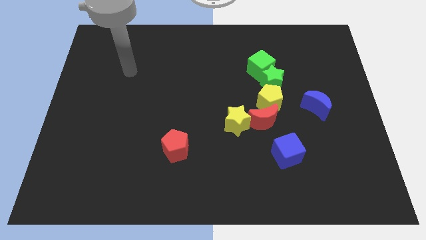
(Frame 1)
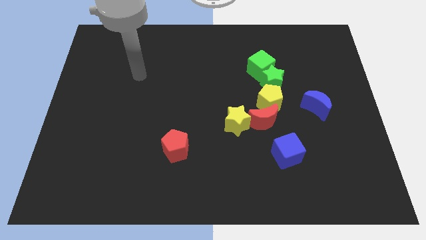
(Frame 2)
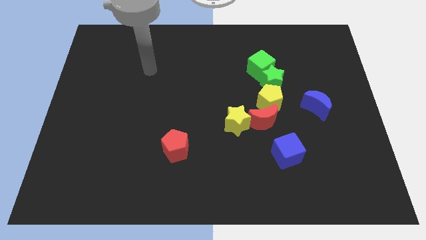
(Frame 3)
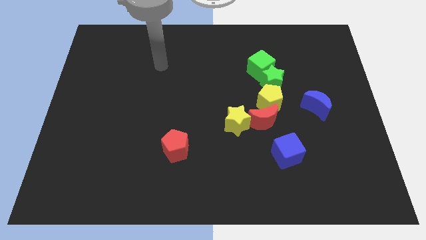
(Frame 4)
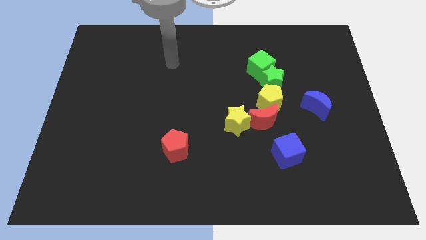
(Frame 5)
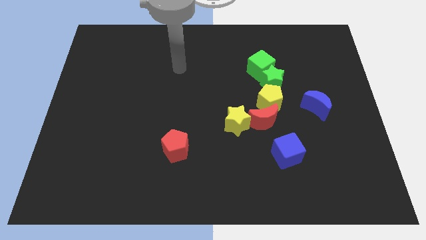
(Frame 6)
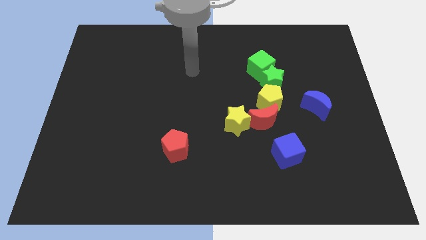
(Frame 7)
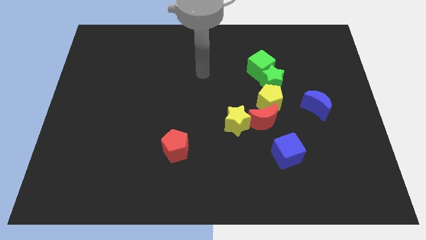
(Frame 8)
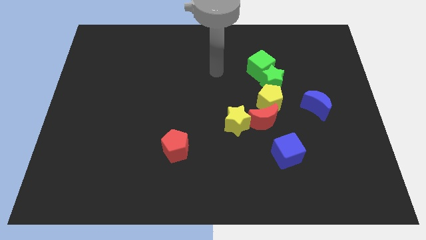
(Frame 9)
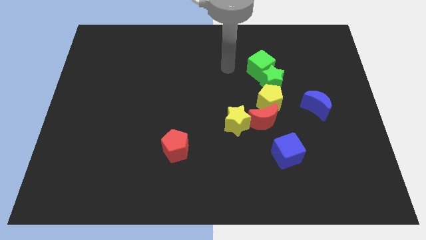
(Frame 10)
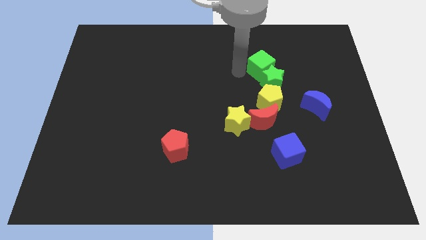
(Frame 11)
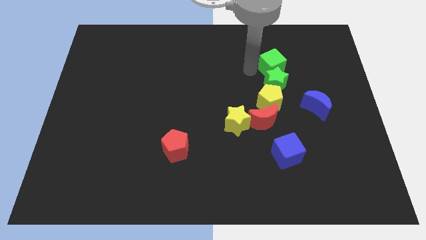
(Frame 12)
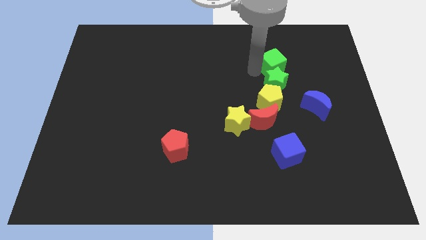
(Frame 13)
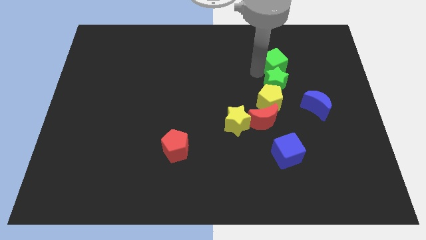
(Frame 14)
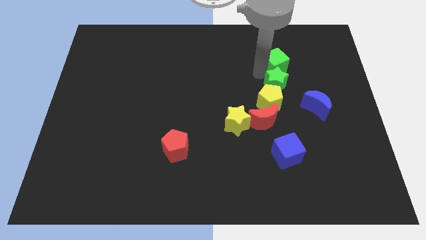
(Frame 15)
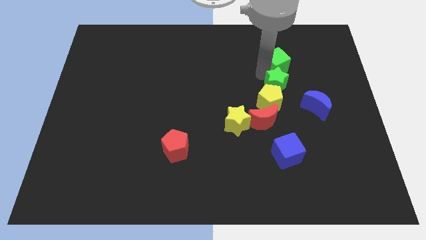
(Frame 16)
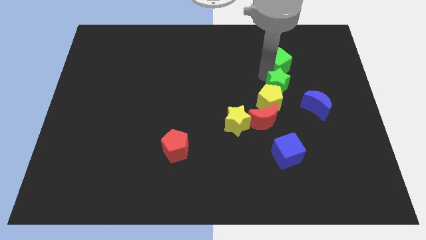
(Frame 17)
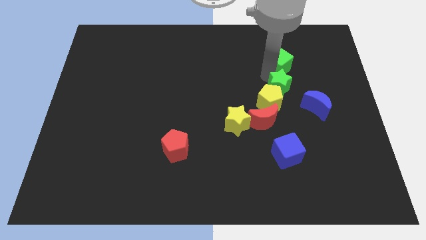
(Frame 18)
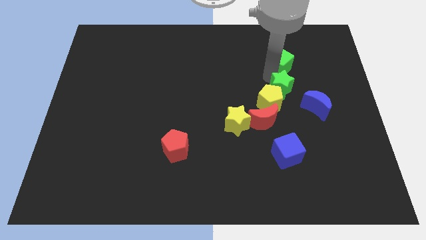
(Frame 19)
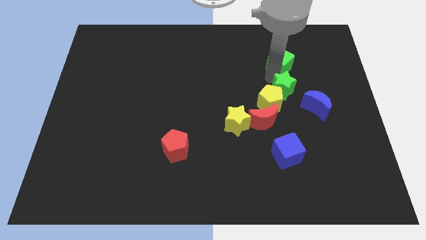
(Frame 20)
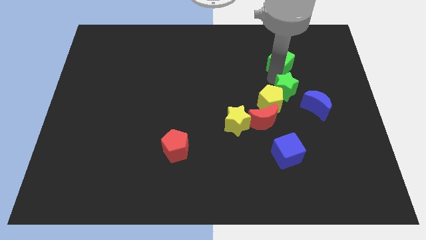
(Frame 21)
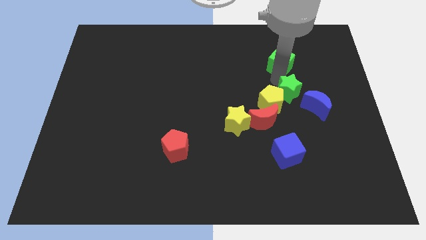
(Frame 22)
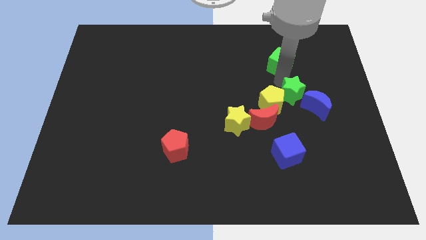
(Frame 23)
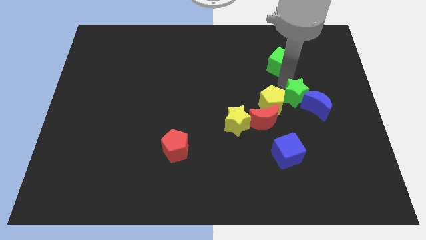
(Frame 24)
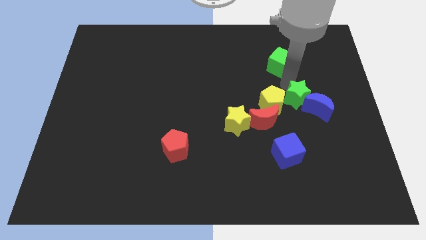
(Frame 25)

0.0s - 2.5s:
slightly slide the green star diagonally down and to the right

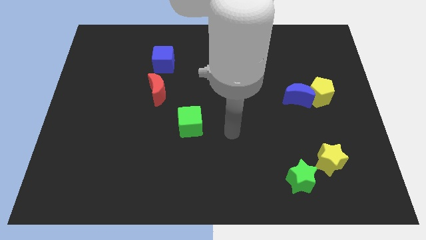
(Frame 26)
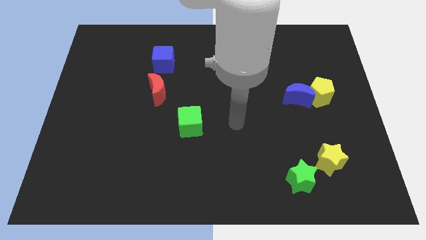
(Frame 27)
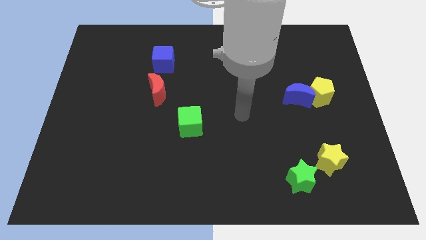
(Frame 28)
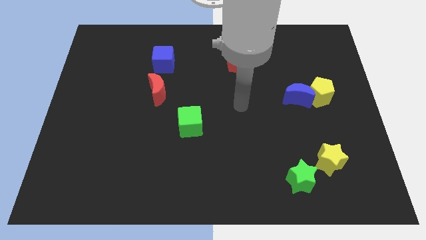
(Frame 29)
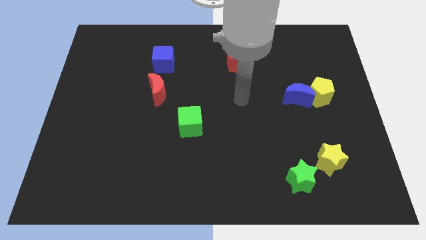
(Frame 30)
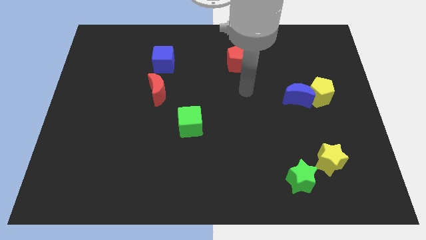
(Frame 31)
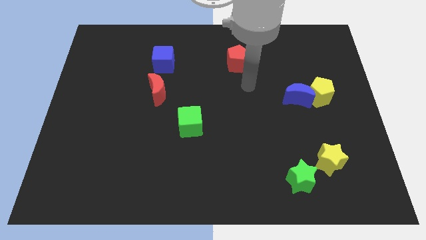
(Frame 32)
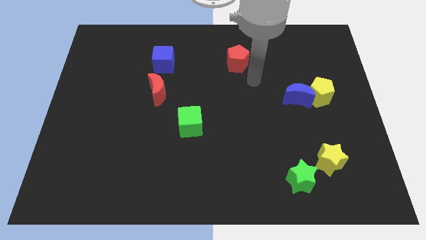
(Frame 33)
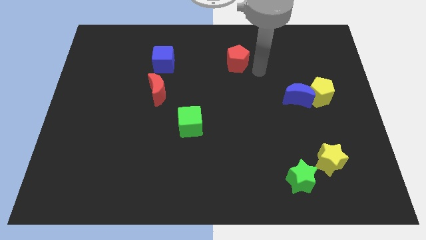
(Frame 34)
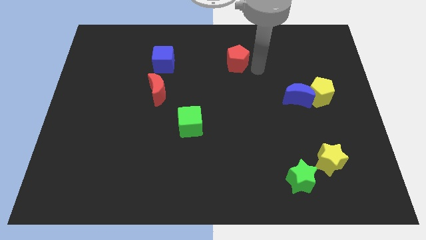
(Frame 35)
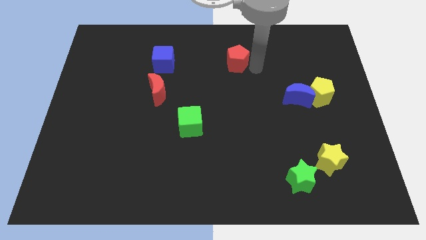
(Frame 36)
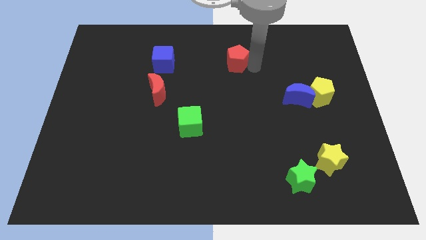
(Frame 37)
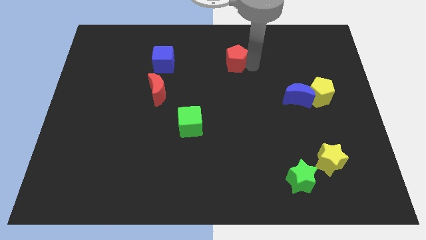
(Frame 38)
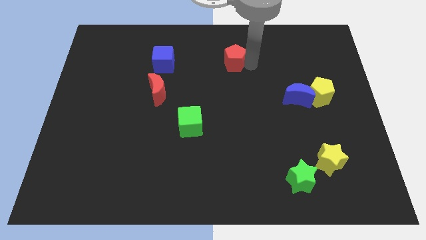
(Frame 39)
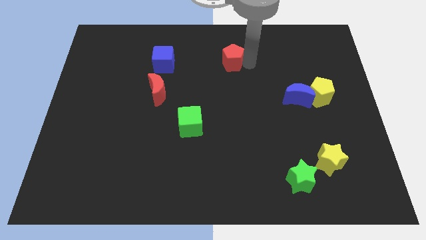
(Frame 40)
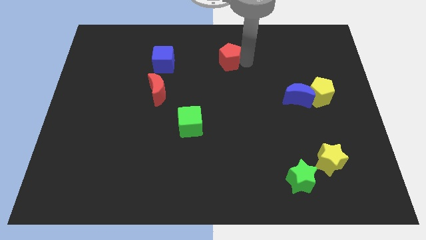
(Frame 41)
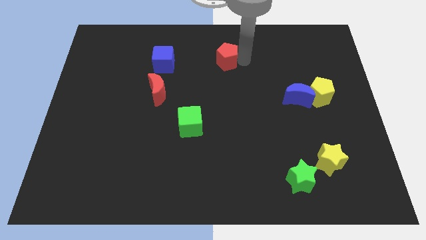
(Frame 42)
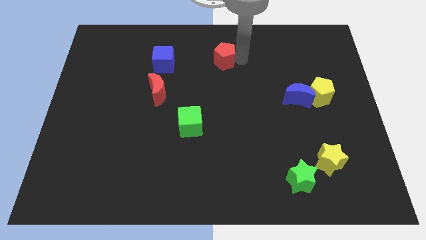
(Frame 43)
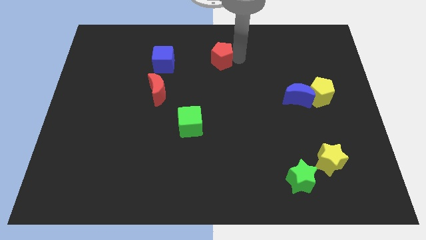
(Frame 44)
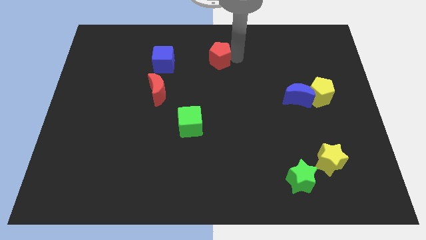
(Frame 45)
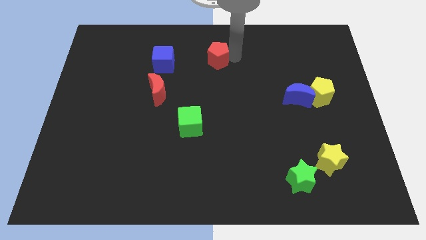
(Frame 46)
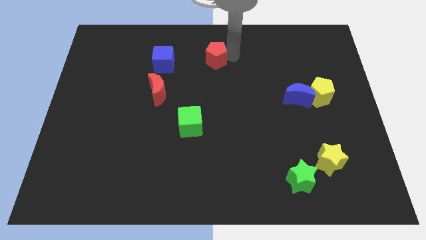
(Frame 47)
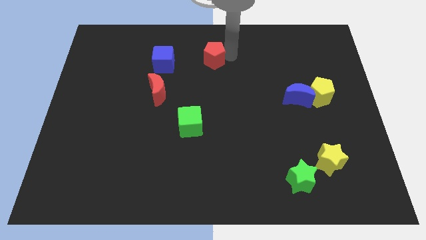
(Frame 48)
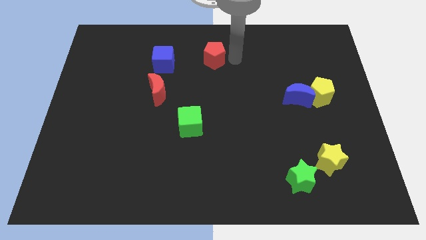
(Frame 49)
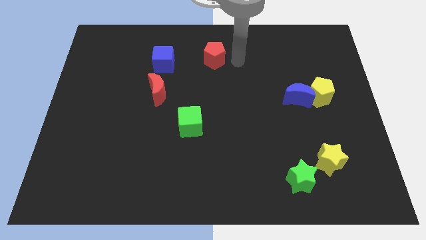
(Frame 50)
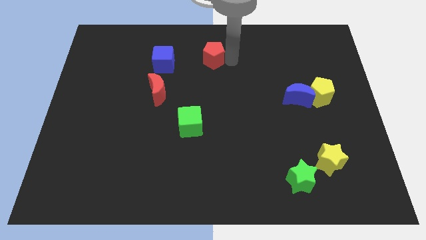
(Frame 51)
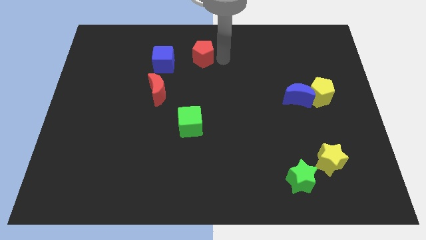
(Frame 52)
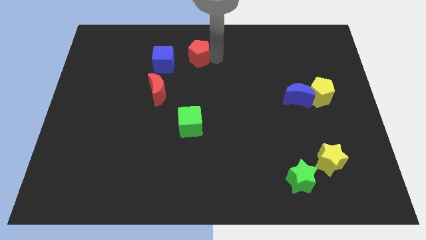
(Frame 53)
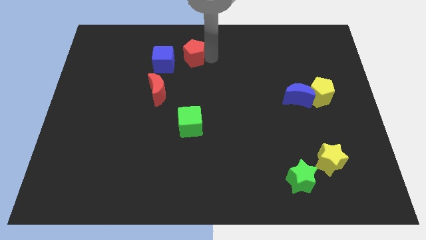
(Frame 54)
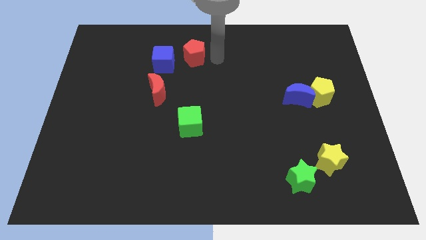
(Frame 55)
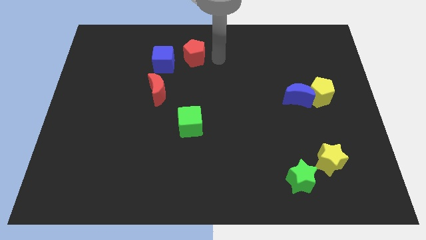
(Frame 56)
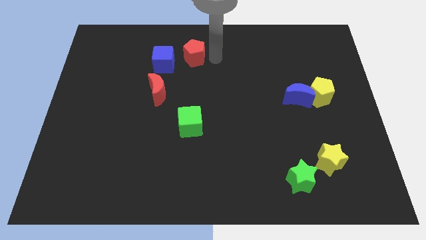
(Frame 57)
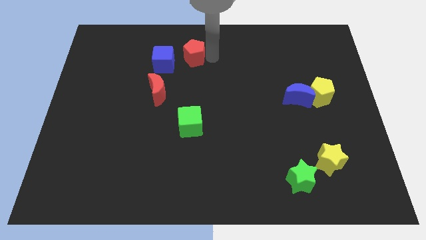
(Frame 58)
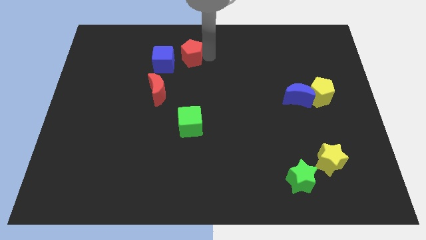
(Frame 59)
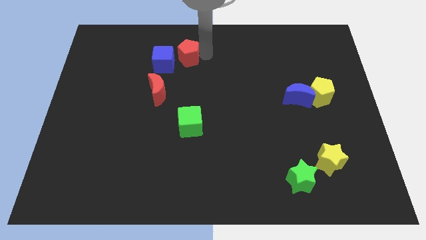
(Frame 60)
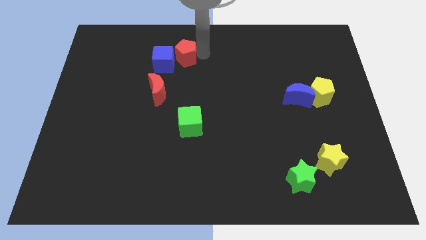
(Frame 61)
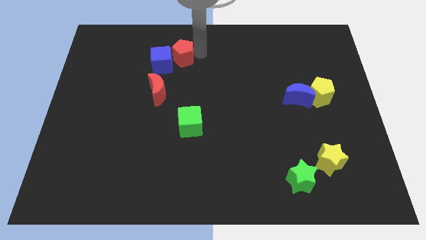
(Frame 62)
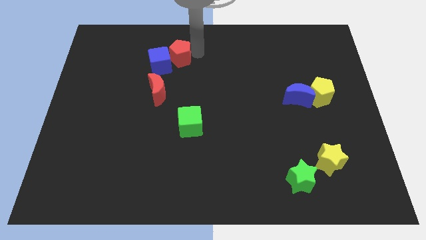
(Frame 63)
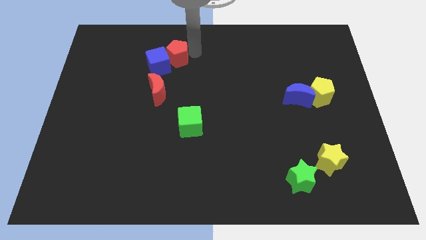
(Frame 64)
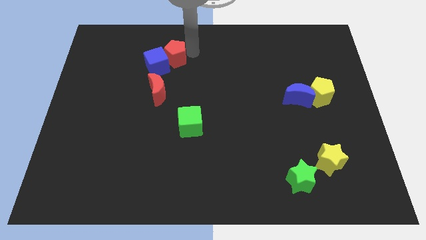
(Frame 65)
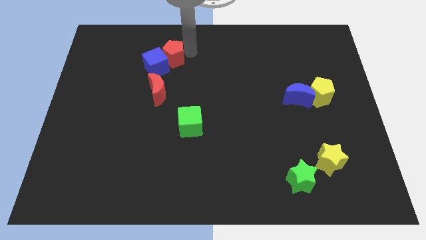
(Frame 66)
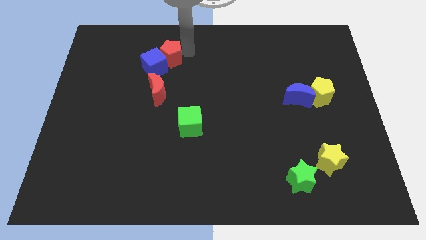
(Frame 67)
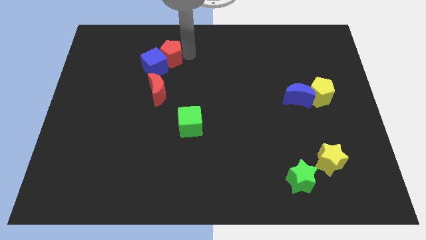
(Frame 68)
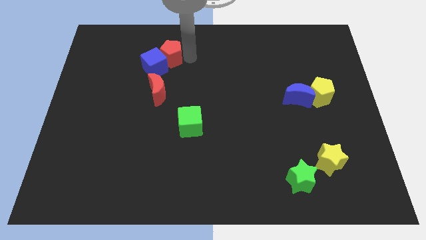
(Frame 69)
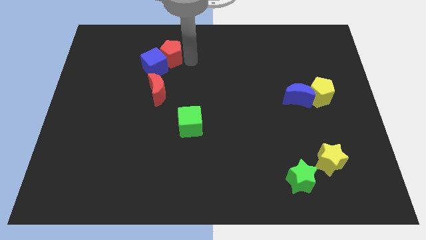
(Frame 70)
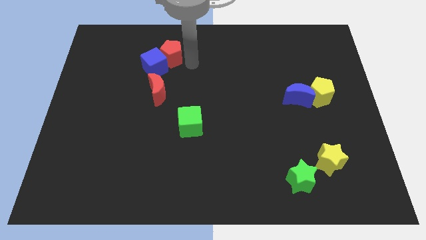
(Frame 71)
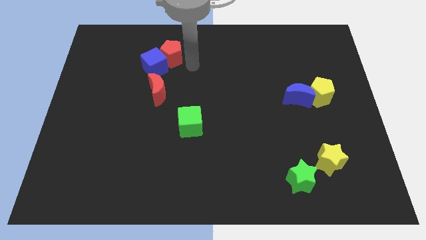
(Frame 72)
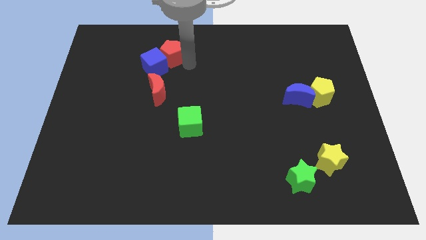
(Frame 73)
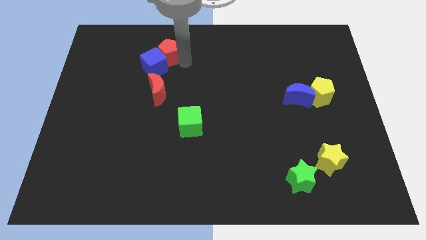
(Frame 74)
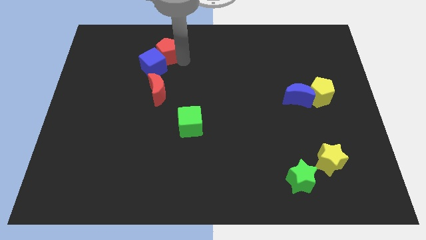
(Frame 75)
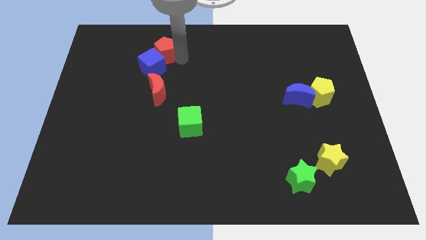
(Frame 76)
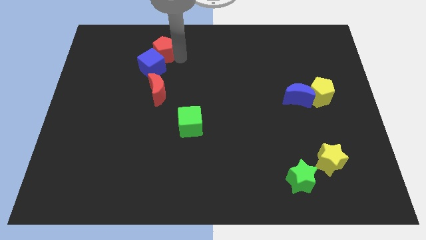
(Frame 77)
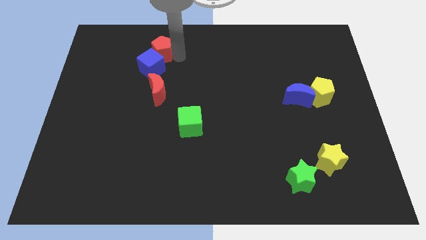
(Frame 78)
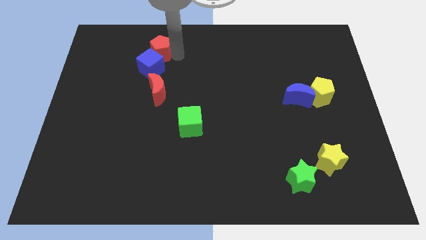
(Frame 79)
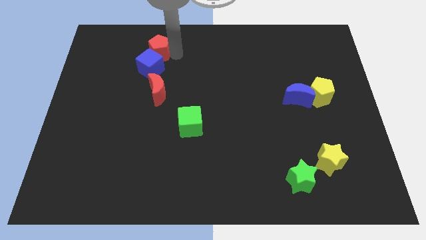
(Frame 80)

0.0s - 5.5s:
push the red pentagon to the left
